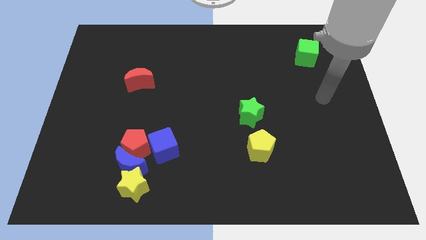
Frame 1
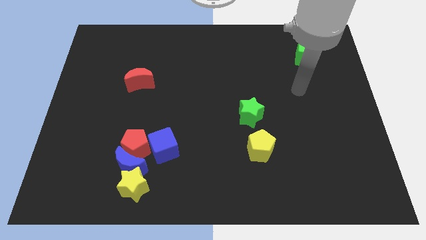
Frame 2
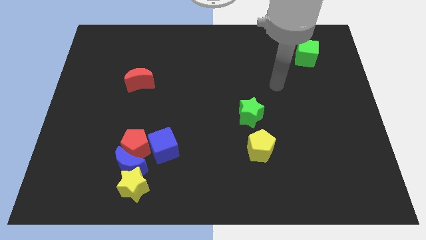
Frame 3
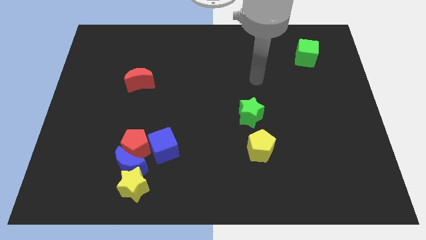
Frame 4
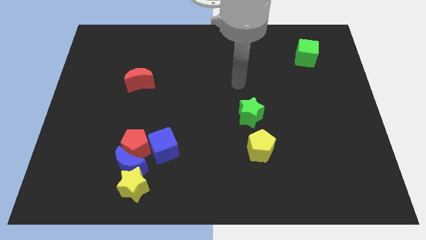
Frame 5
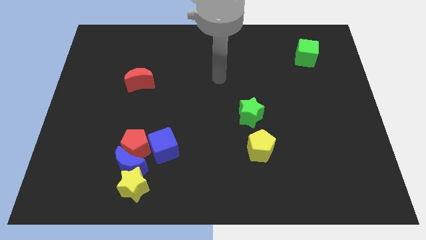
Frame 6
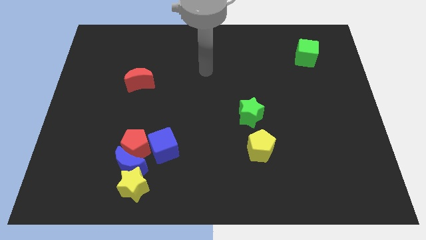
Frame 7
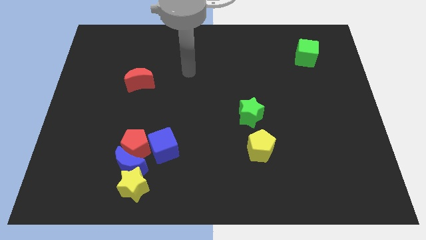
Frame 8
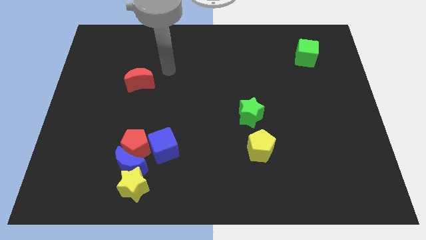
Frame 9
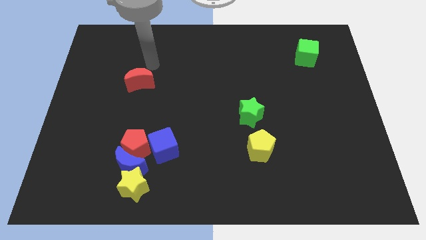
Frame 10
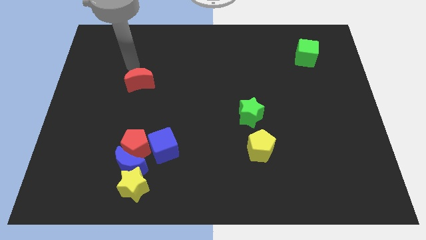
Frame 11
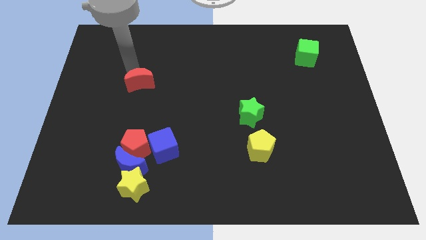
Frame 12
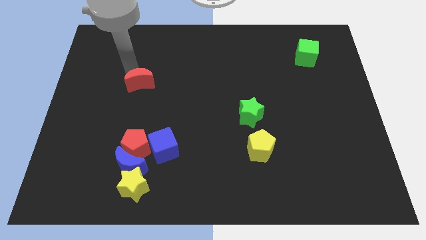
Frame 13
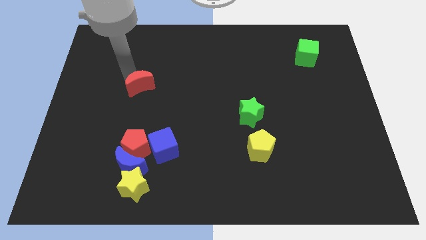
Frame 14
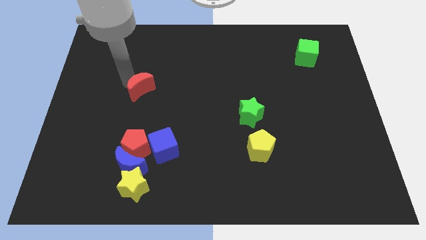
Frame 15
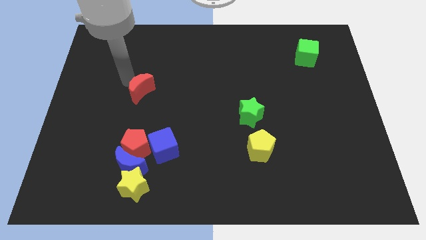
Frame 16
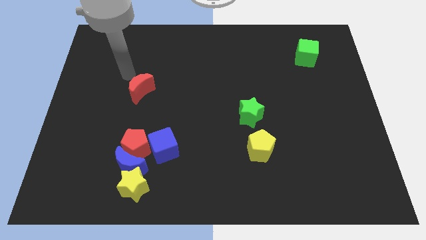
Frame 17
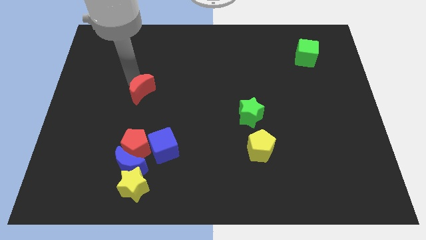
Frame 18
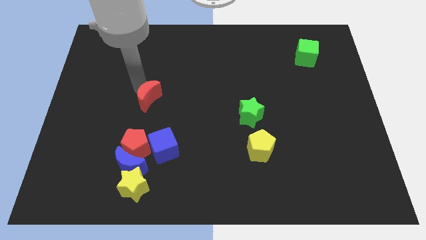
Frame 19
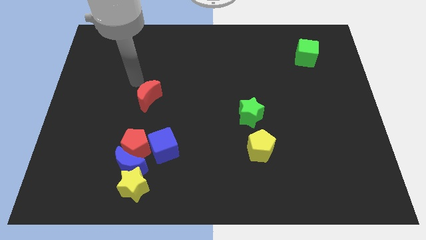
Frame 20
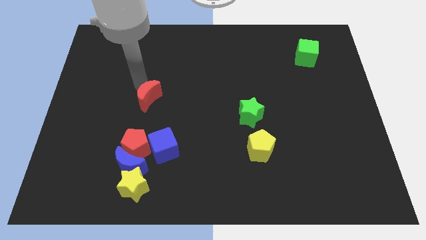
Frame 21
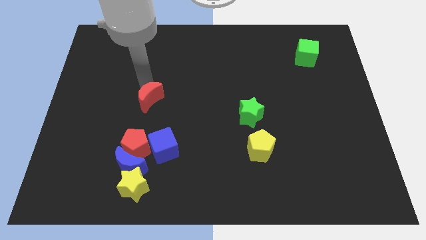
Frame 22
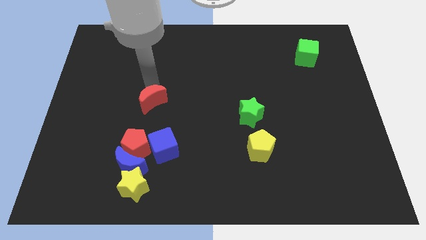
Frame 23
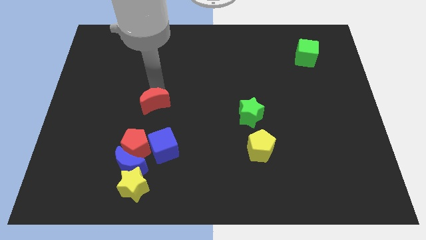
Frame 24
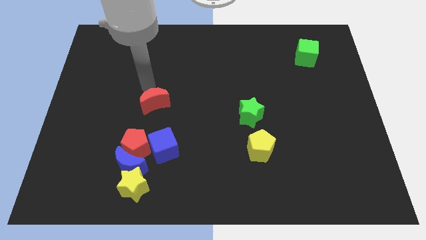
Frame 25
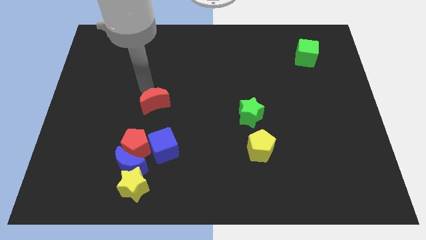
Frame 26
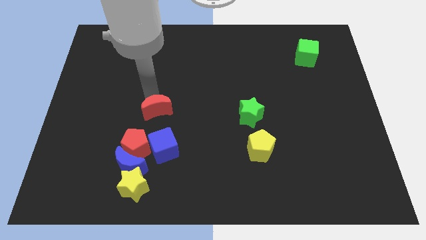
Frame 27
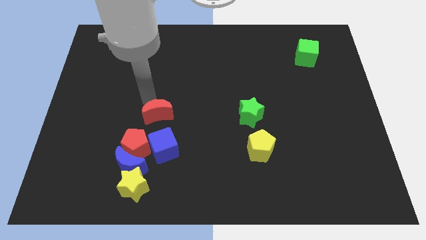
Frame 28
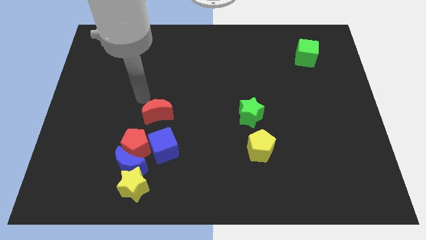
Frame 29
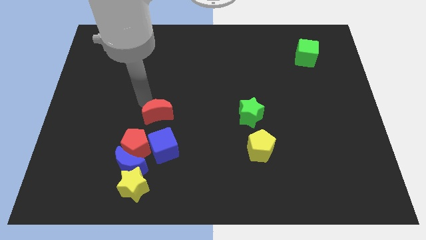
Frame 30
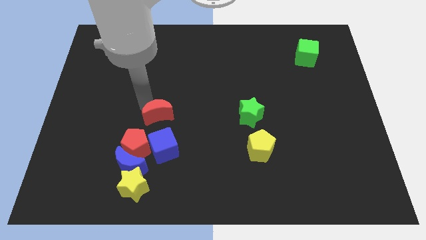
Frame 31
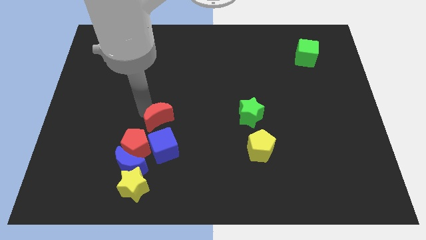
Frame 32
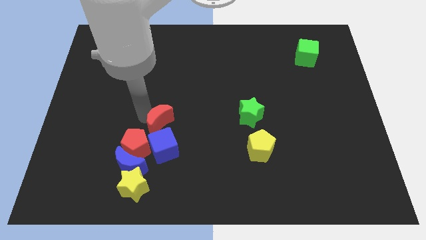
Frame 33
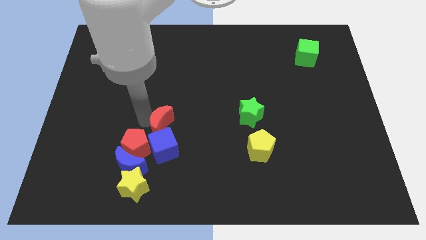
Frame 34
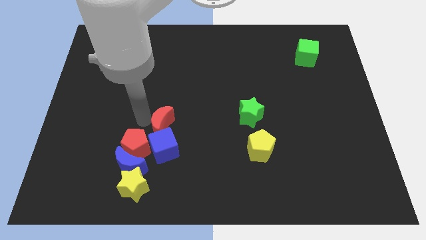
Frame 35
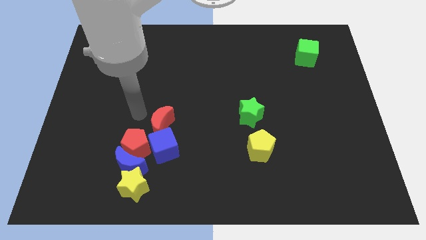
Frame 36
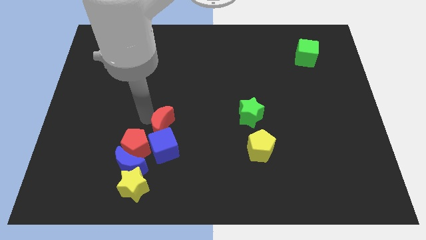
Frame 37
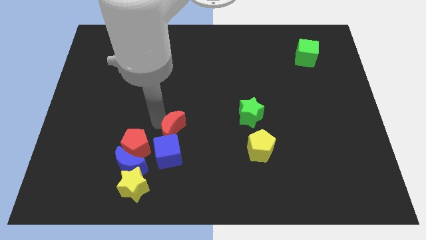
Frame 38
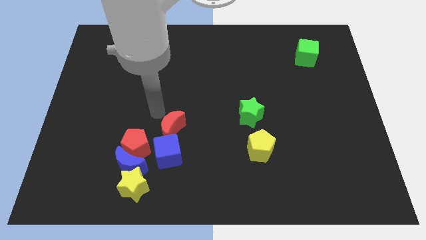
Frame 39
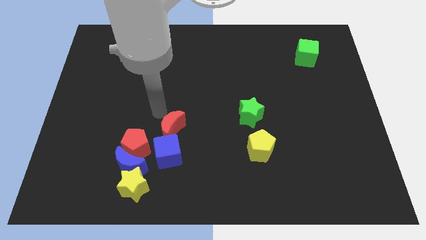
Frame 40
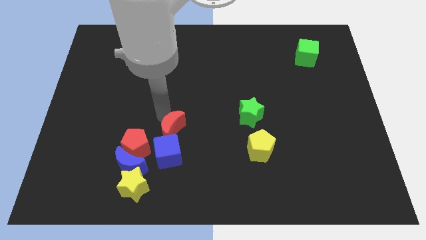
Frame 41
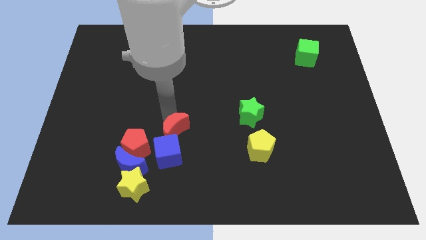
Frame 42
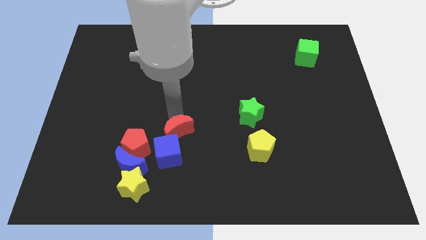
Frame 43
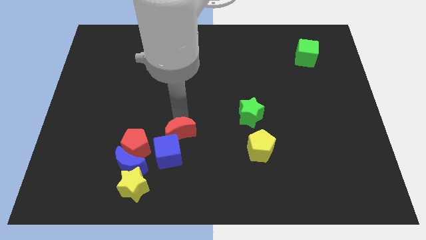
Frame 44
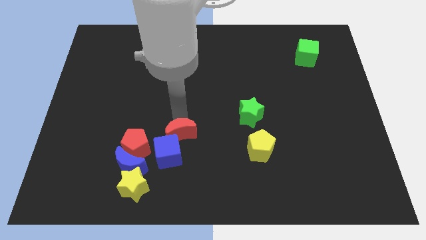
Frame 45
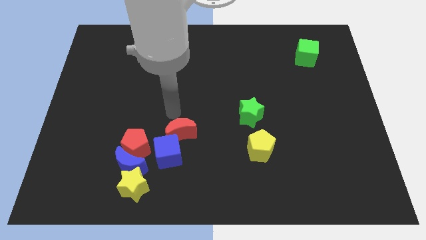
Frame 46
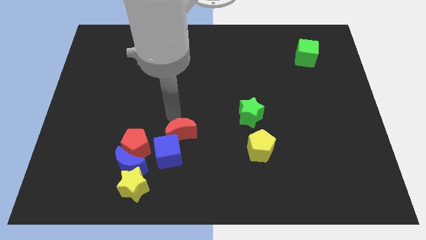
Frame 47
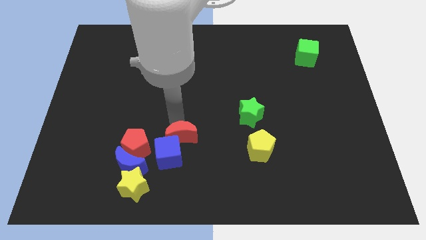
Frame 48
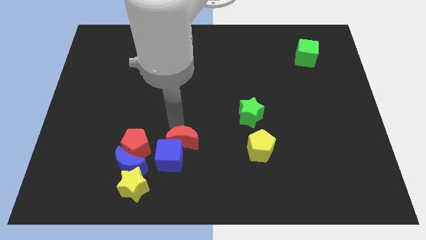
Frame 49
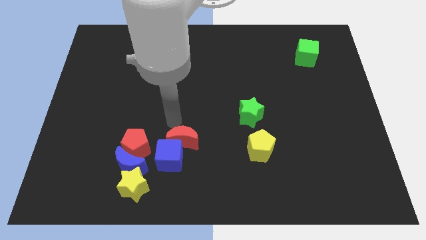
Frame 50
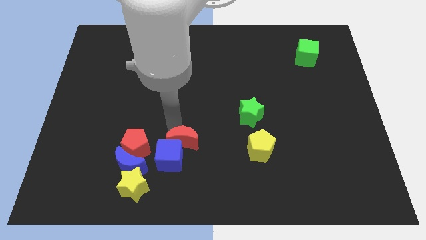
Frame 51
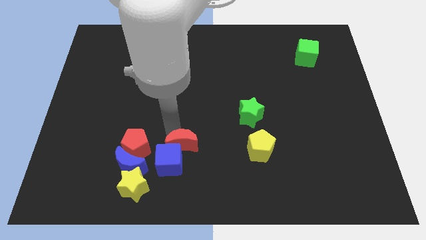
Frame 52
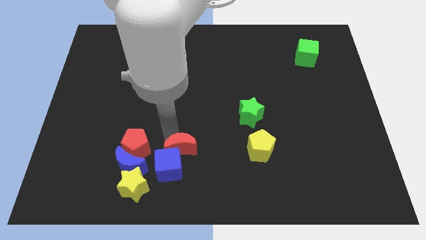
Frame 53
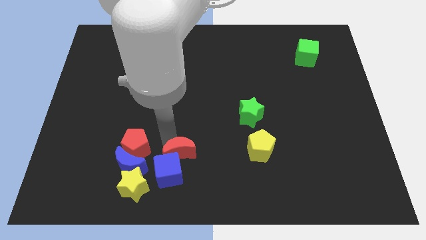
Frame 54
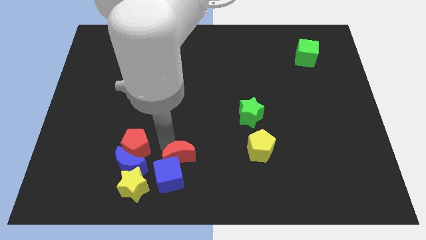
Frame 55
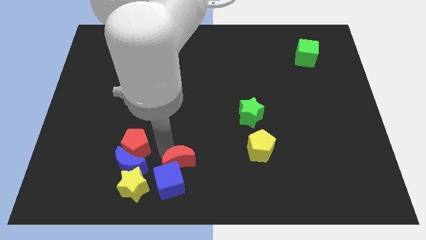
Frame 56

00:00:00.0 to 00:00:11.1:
put the red moon to the bottom side

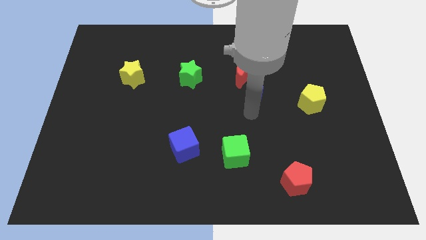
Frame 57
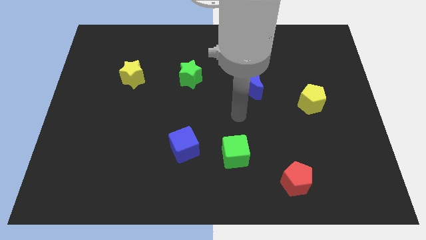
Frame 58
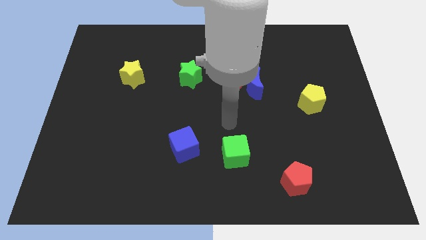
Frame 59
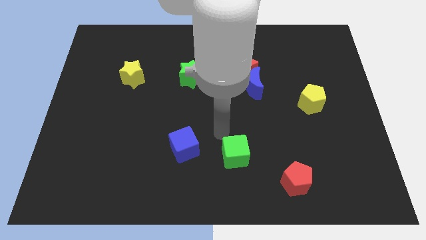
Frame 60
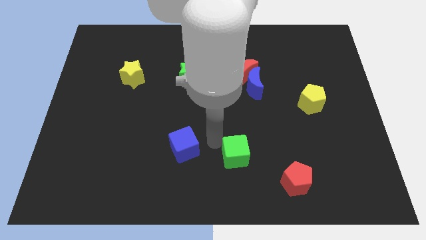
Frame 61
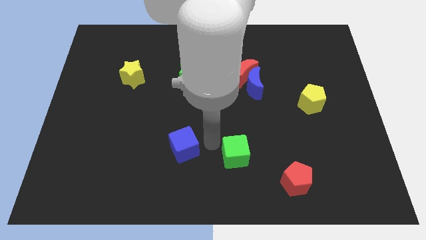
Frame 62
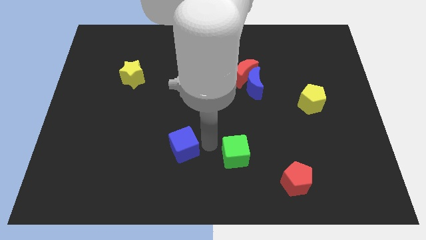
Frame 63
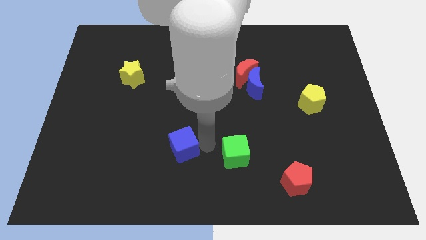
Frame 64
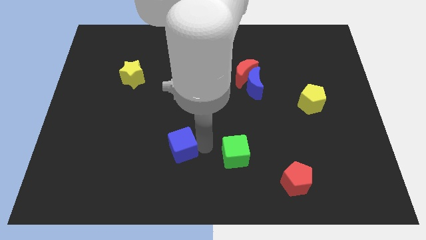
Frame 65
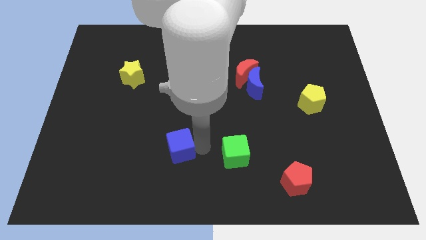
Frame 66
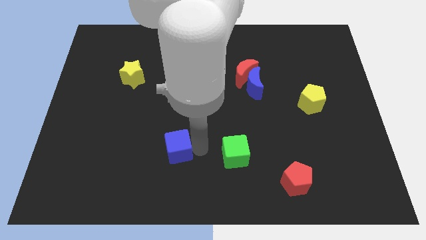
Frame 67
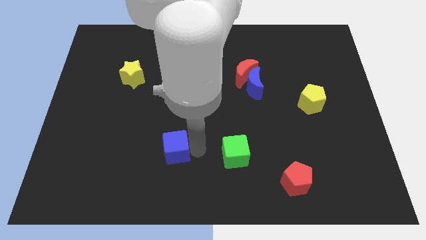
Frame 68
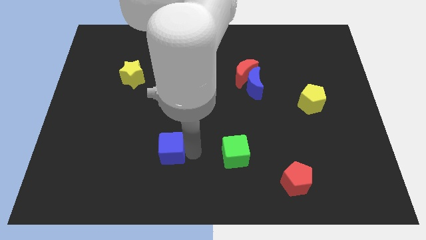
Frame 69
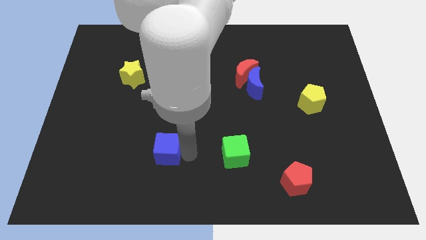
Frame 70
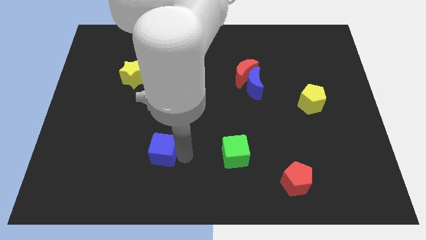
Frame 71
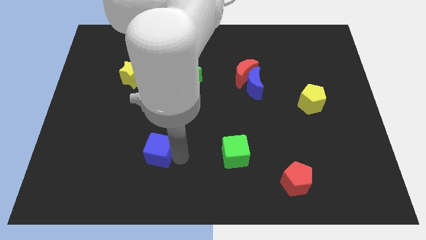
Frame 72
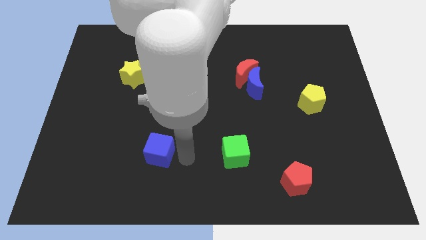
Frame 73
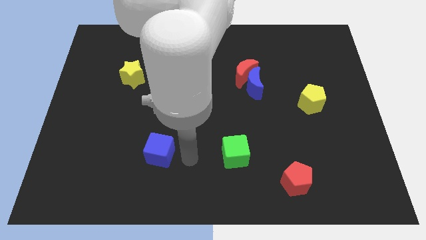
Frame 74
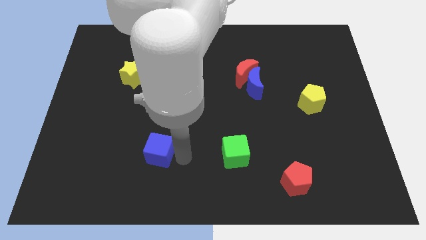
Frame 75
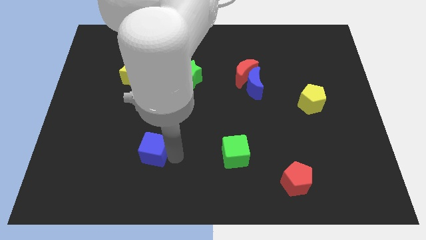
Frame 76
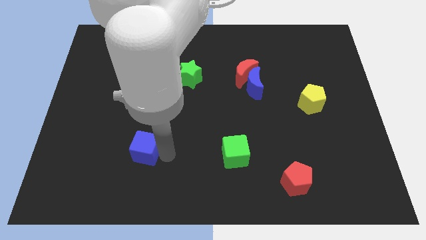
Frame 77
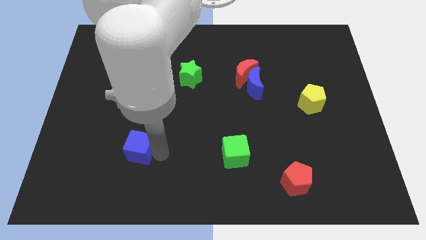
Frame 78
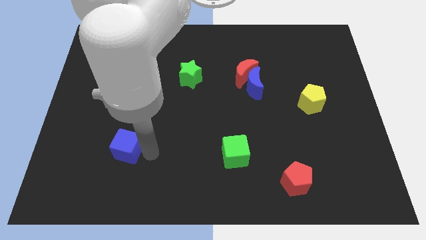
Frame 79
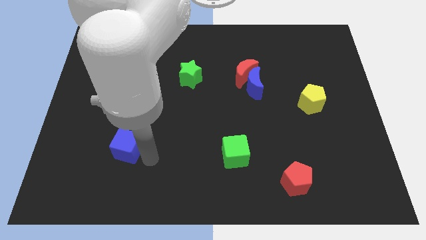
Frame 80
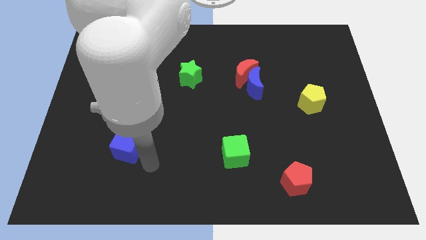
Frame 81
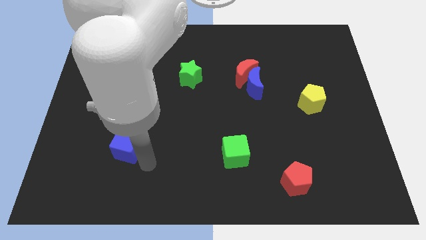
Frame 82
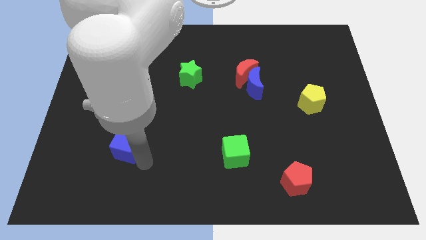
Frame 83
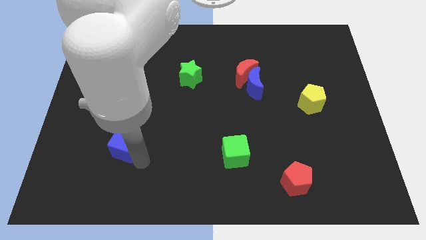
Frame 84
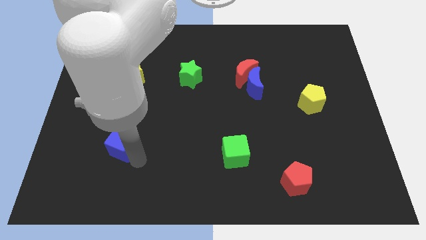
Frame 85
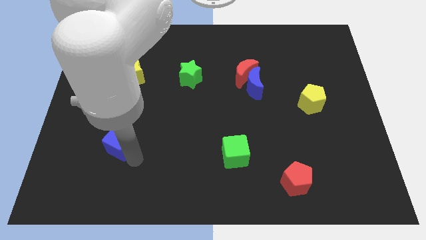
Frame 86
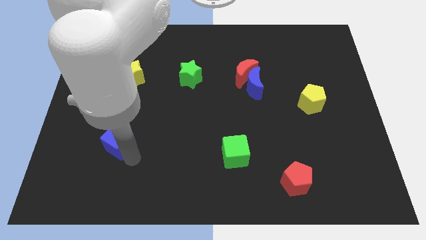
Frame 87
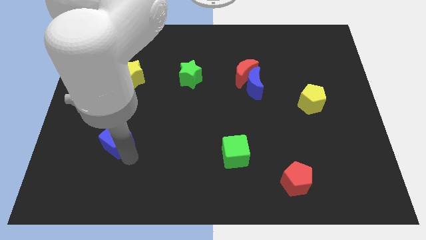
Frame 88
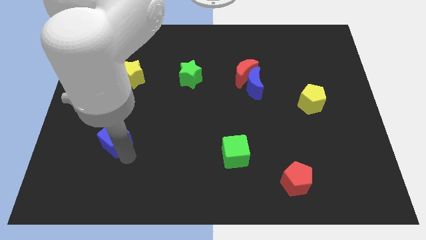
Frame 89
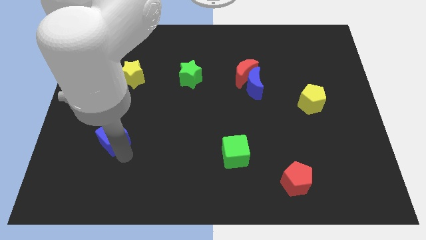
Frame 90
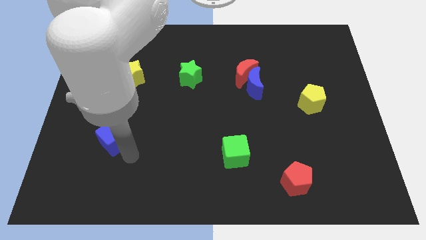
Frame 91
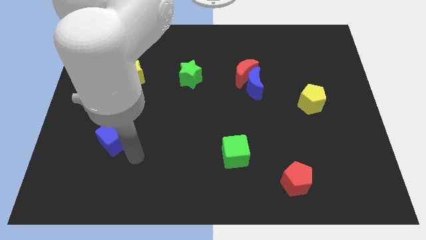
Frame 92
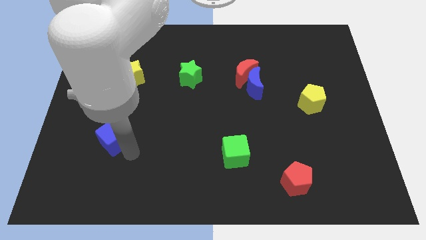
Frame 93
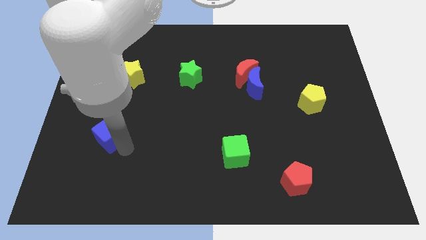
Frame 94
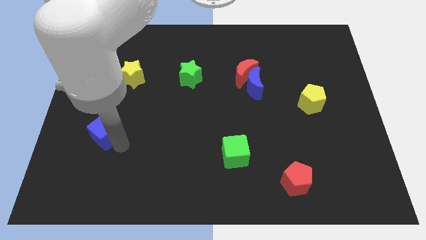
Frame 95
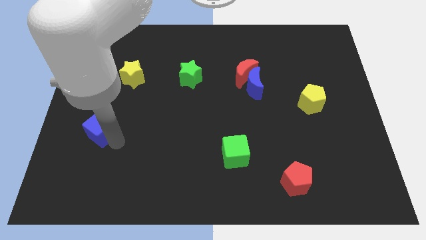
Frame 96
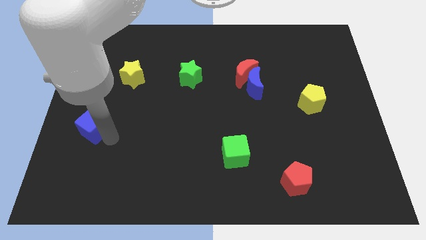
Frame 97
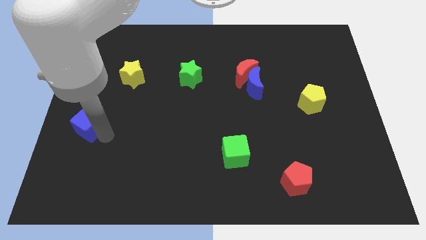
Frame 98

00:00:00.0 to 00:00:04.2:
move the blue cube to the left side
